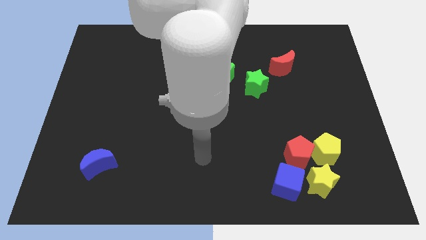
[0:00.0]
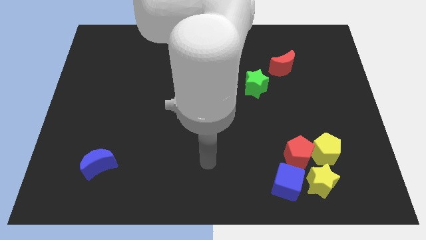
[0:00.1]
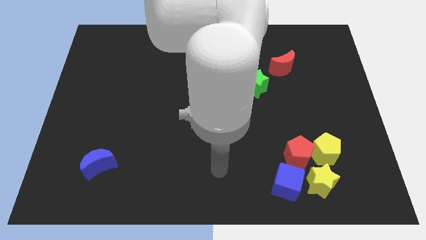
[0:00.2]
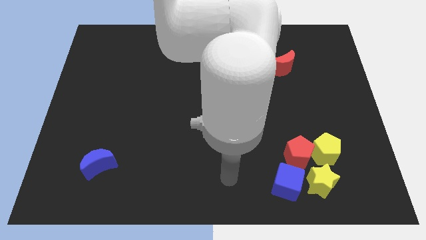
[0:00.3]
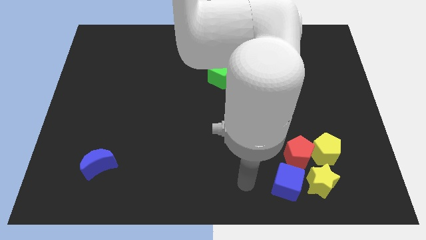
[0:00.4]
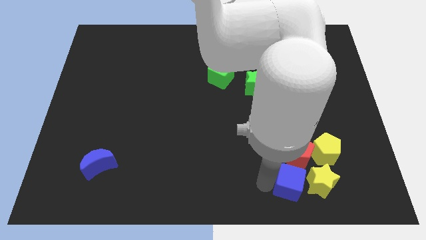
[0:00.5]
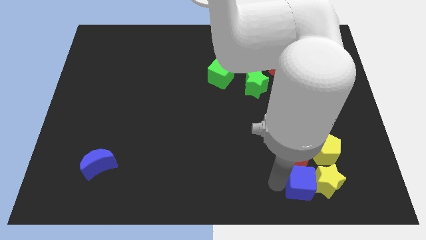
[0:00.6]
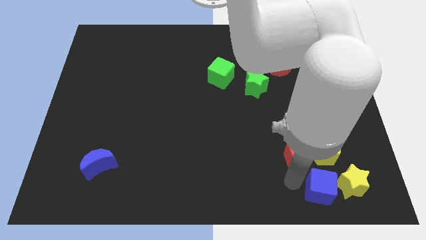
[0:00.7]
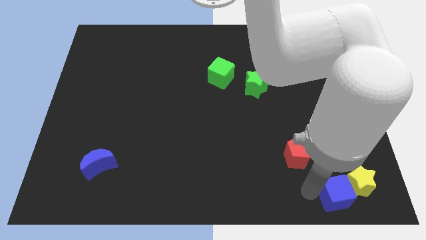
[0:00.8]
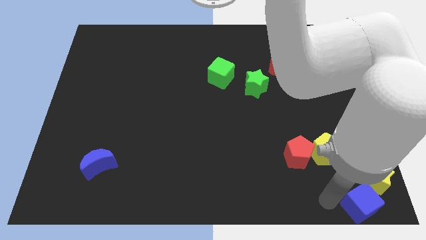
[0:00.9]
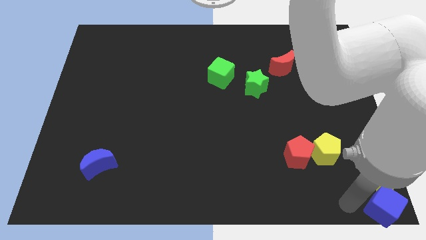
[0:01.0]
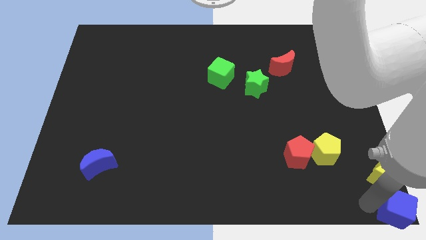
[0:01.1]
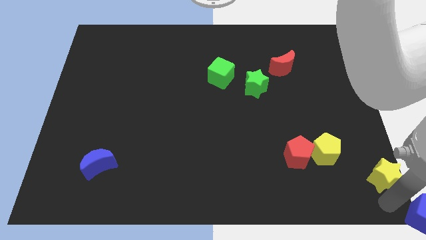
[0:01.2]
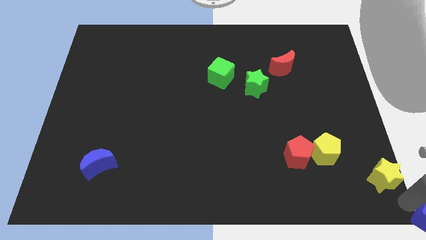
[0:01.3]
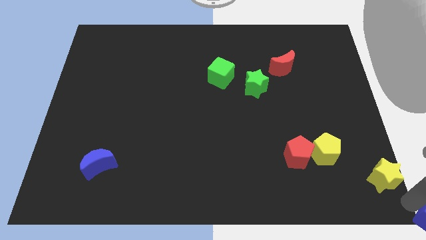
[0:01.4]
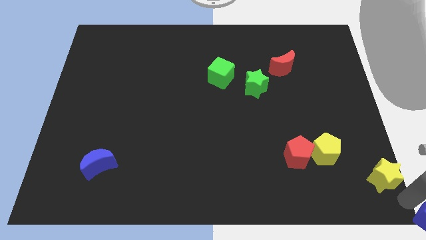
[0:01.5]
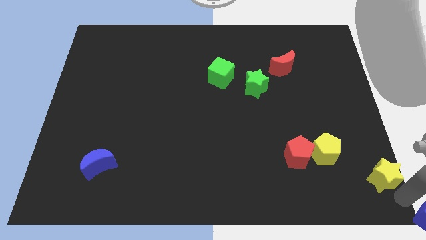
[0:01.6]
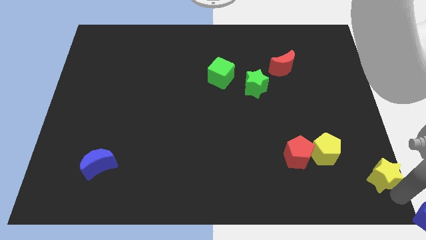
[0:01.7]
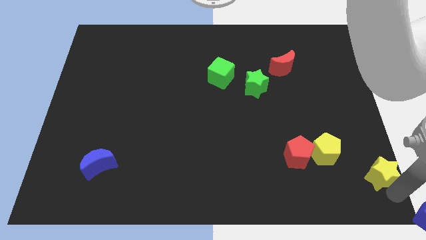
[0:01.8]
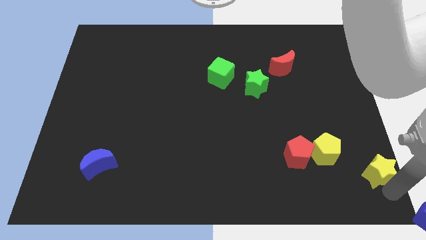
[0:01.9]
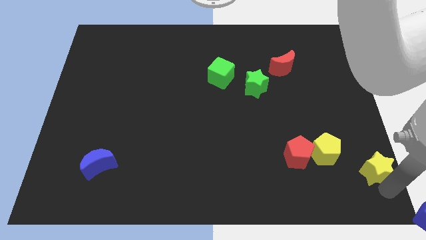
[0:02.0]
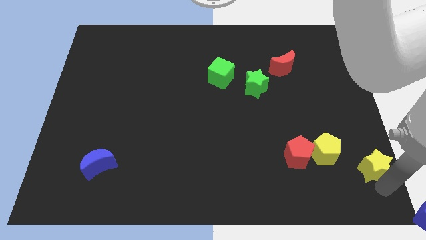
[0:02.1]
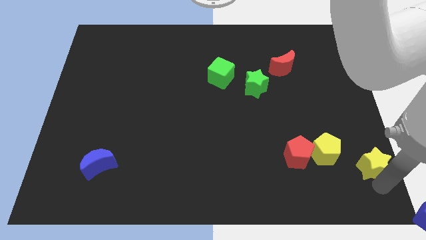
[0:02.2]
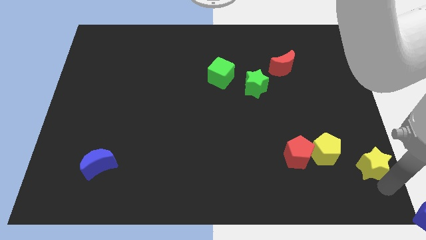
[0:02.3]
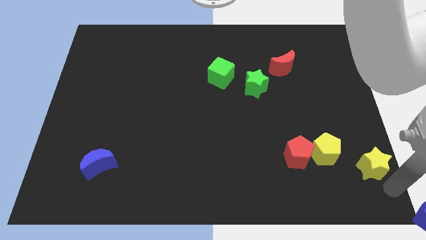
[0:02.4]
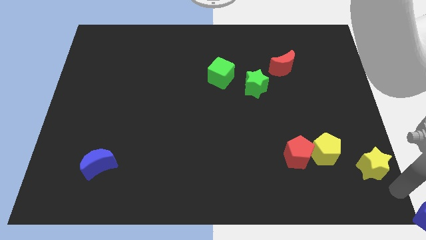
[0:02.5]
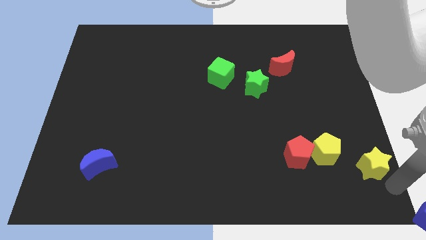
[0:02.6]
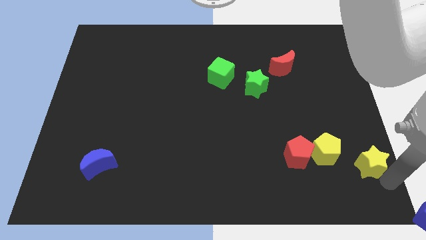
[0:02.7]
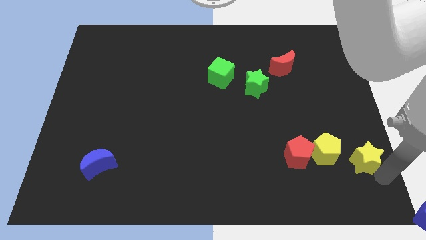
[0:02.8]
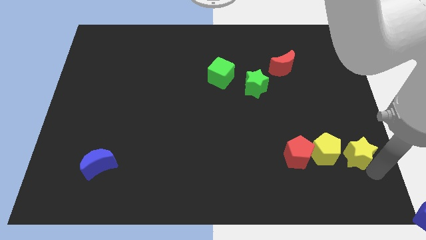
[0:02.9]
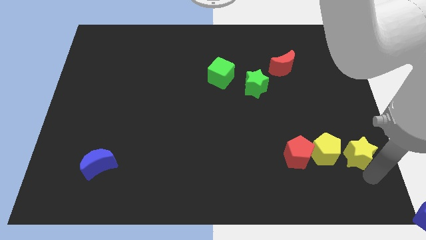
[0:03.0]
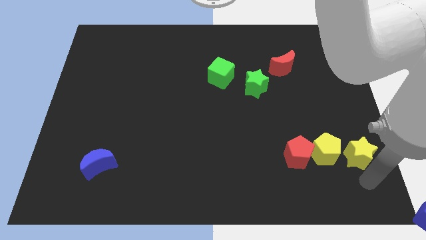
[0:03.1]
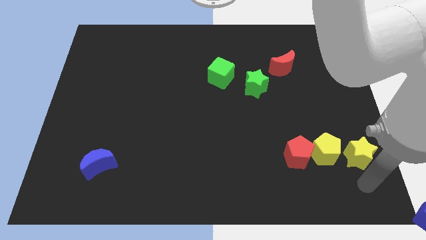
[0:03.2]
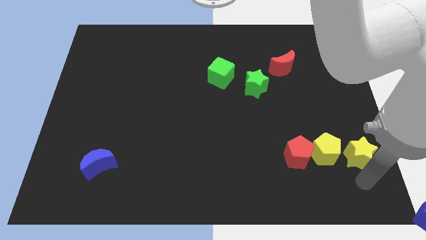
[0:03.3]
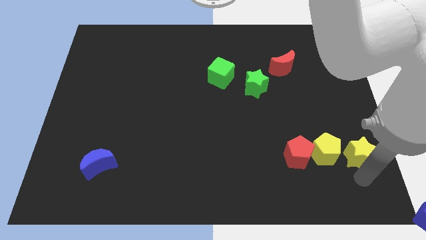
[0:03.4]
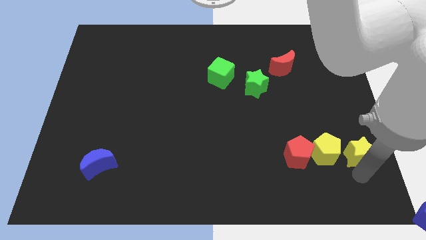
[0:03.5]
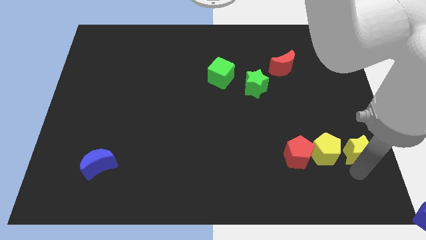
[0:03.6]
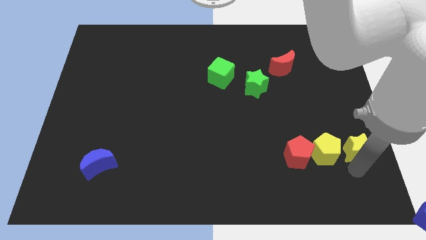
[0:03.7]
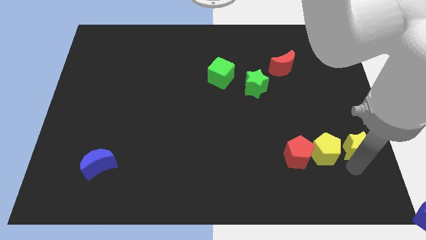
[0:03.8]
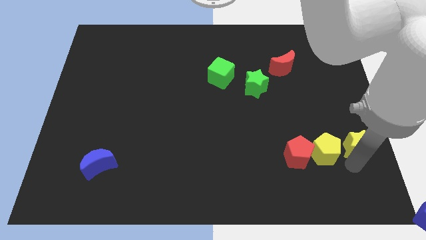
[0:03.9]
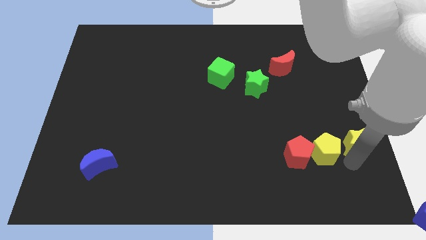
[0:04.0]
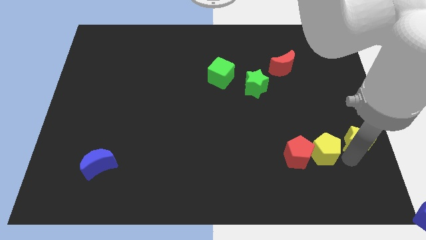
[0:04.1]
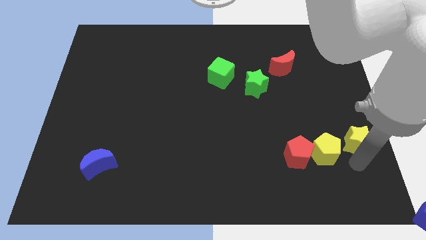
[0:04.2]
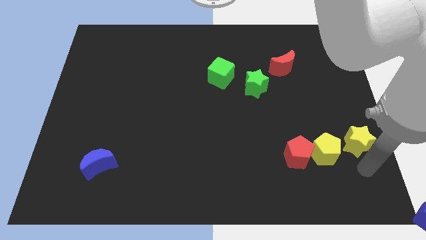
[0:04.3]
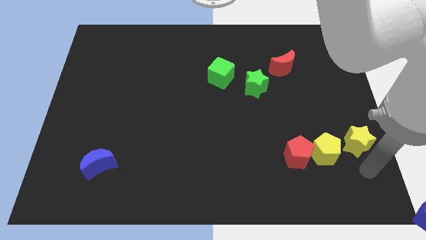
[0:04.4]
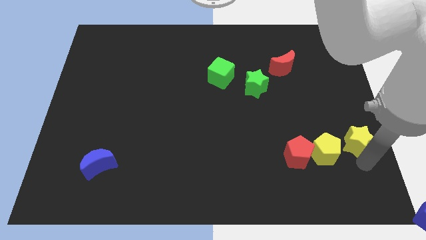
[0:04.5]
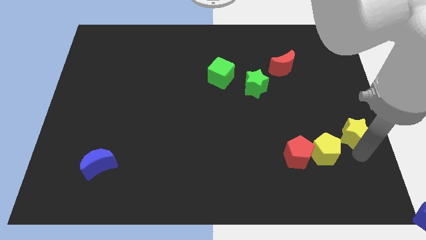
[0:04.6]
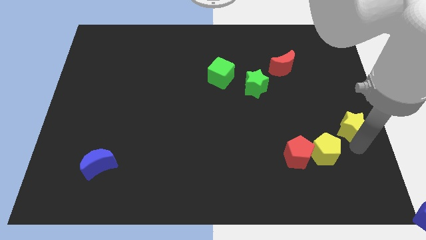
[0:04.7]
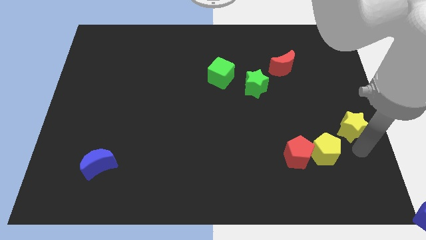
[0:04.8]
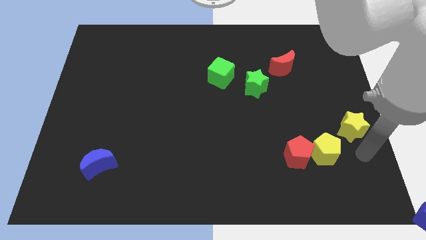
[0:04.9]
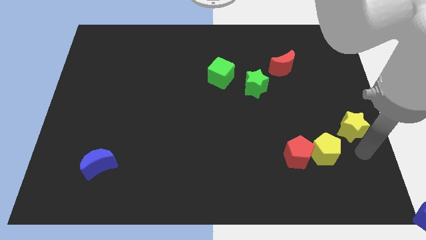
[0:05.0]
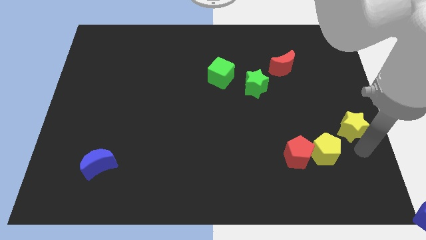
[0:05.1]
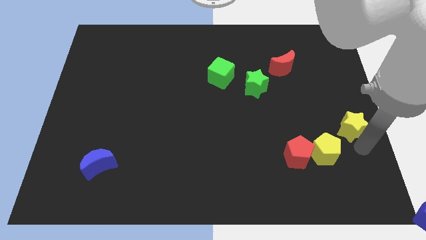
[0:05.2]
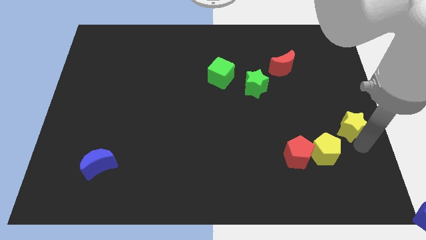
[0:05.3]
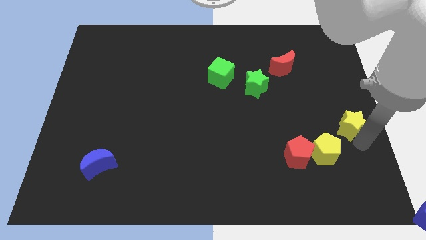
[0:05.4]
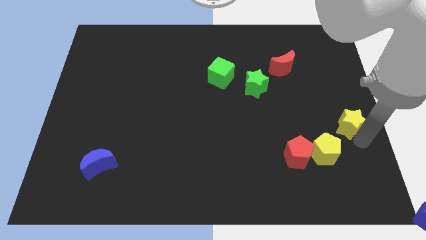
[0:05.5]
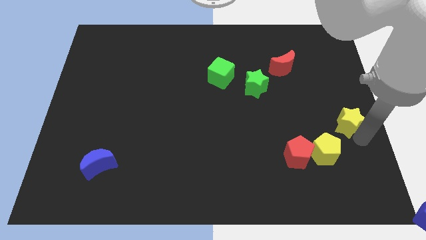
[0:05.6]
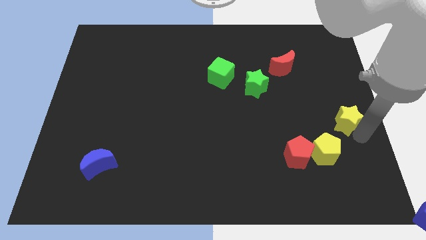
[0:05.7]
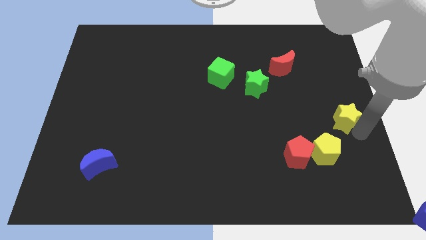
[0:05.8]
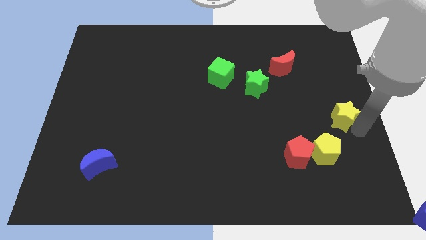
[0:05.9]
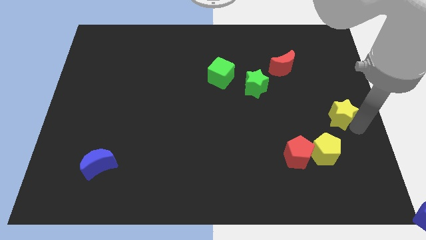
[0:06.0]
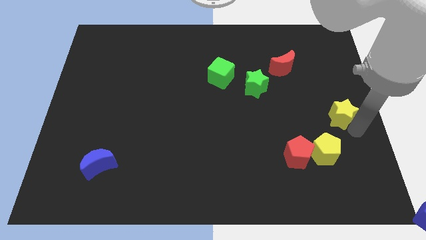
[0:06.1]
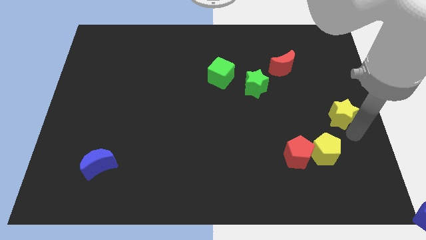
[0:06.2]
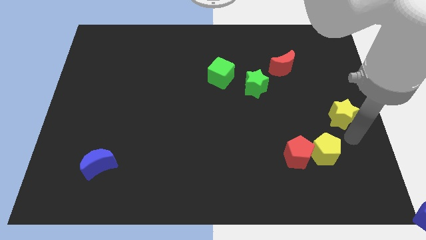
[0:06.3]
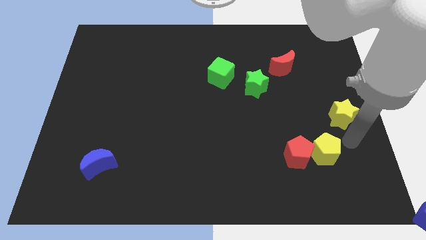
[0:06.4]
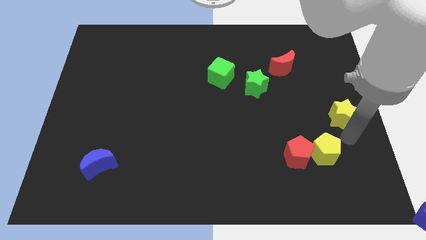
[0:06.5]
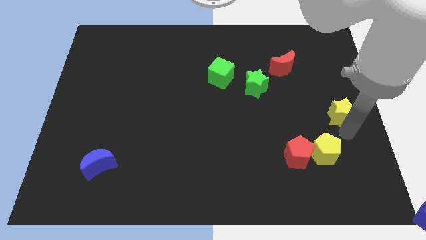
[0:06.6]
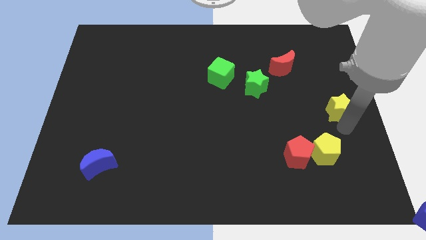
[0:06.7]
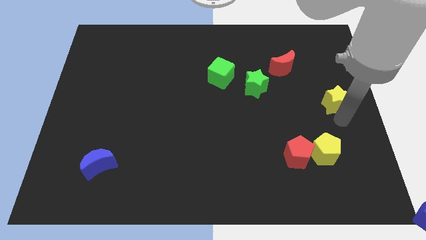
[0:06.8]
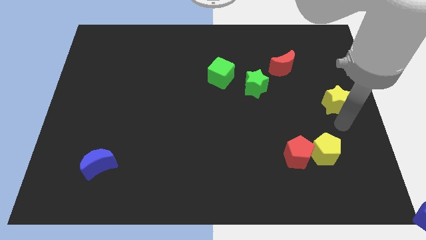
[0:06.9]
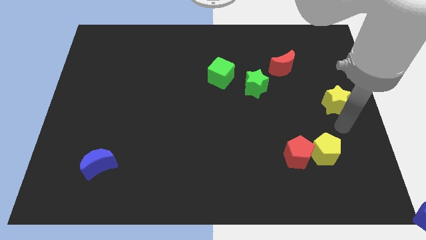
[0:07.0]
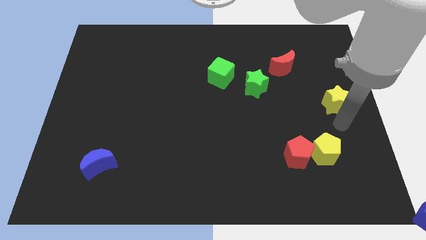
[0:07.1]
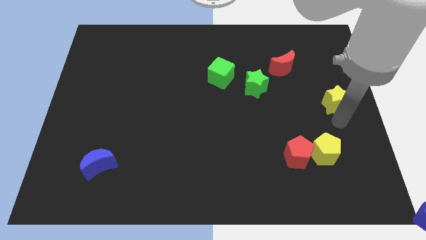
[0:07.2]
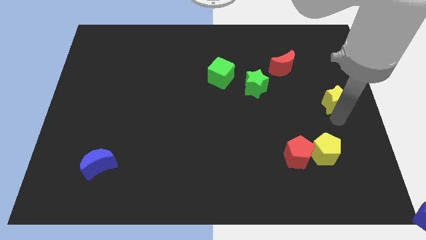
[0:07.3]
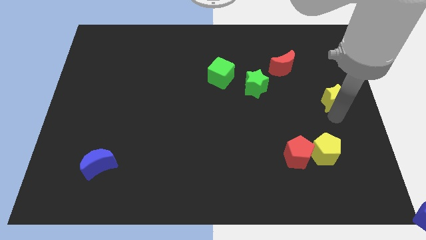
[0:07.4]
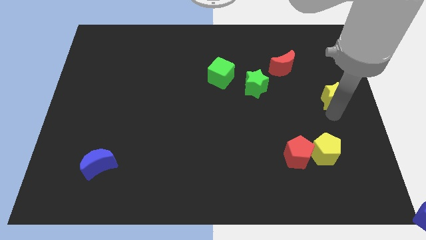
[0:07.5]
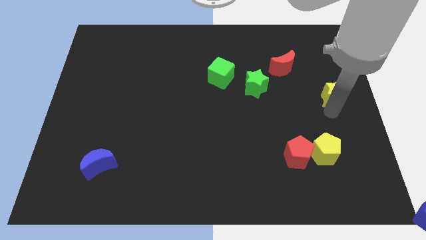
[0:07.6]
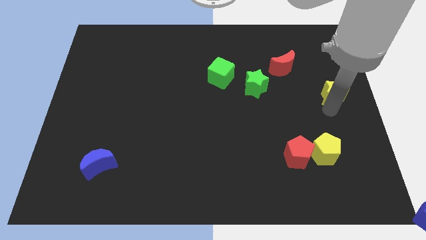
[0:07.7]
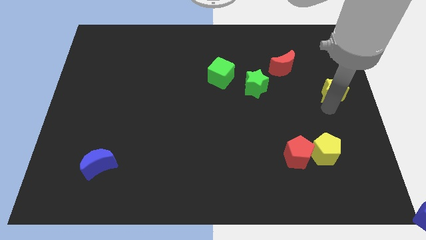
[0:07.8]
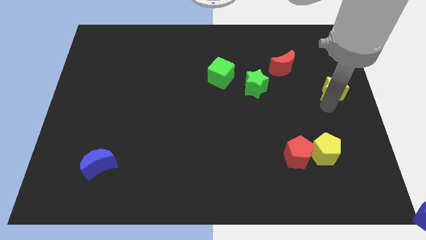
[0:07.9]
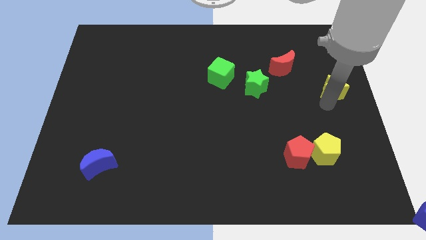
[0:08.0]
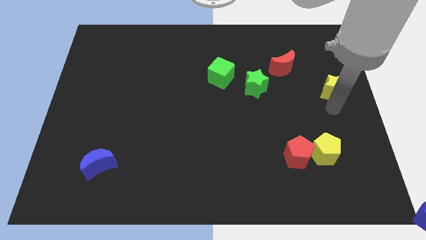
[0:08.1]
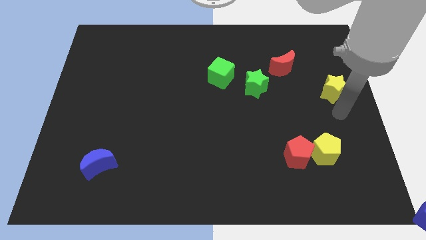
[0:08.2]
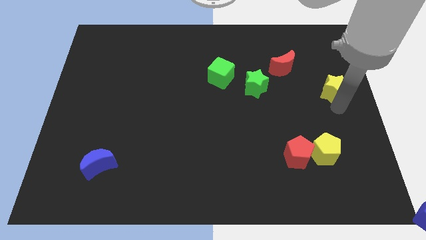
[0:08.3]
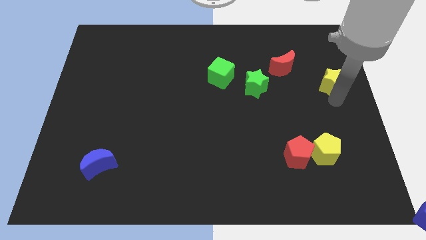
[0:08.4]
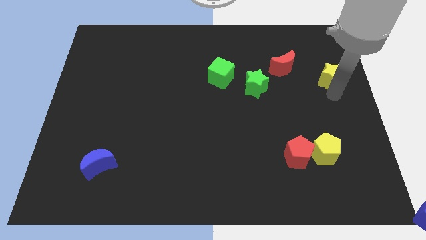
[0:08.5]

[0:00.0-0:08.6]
move the yellow star right of the red moon
